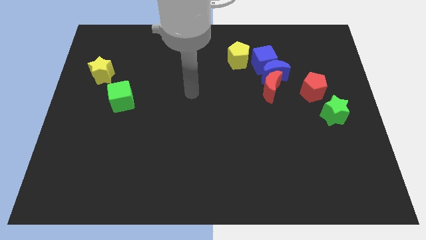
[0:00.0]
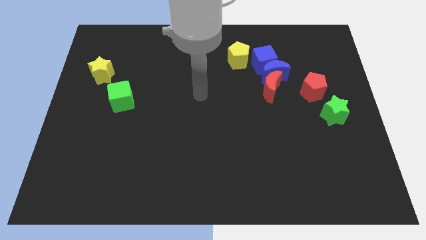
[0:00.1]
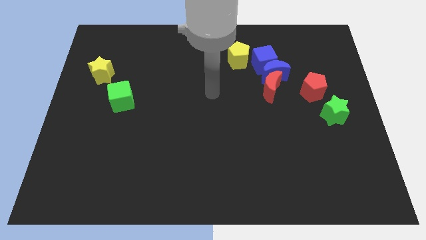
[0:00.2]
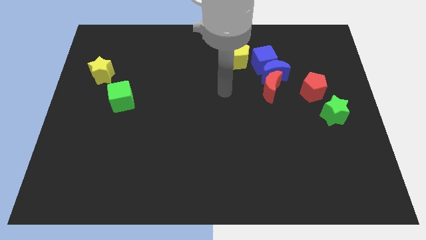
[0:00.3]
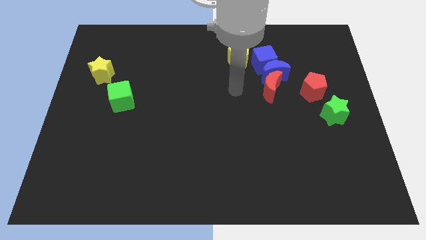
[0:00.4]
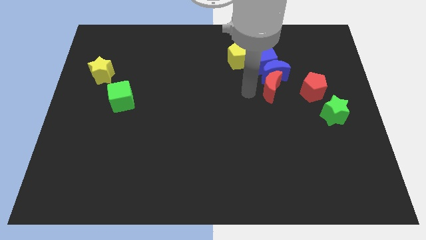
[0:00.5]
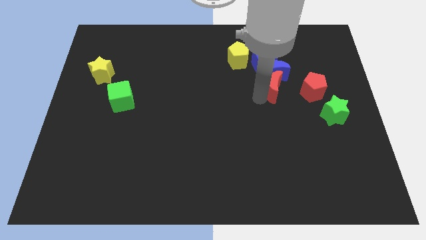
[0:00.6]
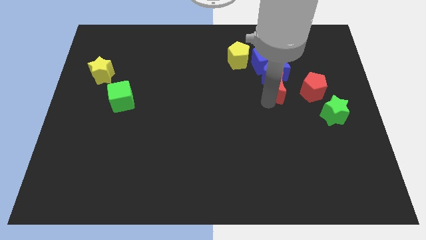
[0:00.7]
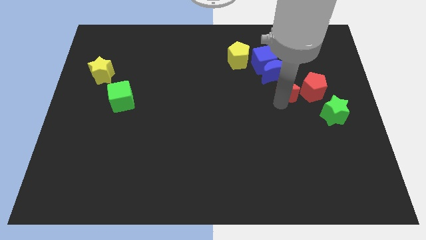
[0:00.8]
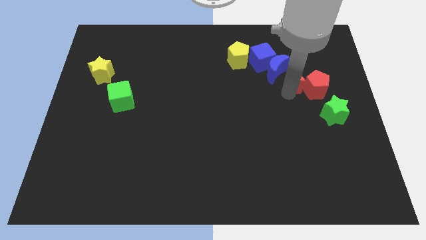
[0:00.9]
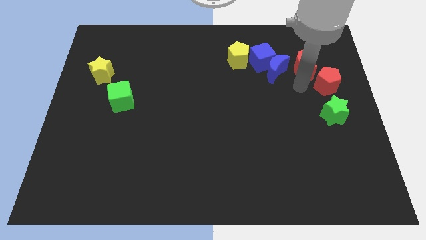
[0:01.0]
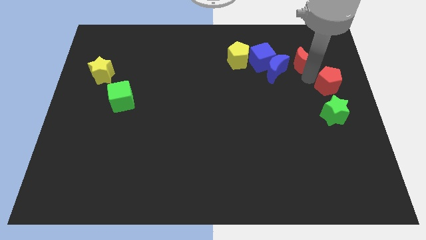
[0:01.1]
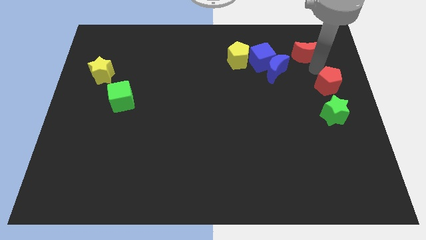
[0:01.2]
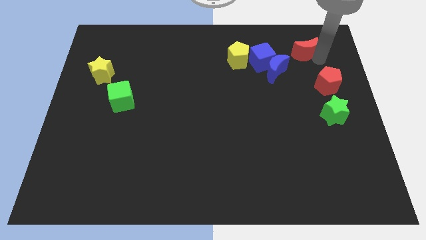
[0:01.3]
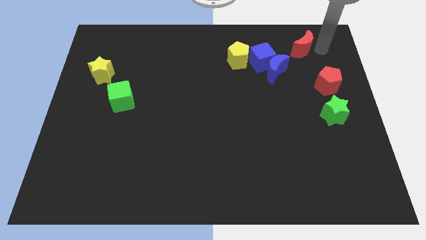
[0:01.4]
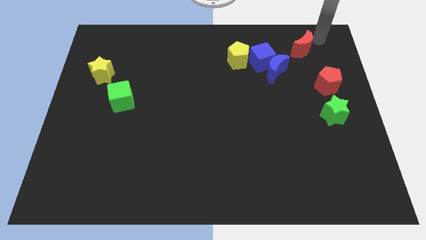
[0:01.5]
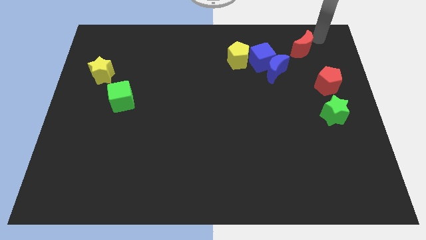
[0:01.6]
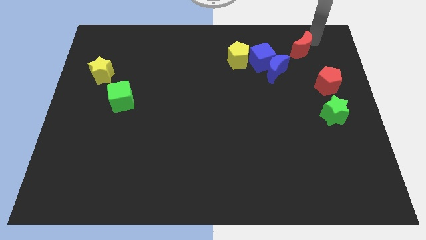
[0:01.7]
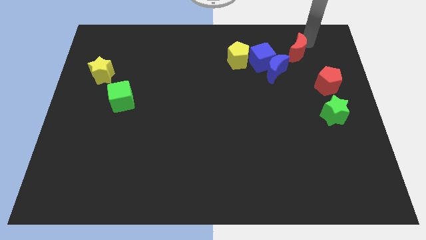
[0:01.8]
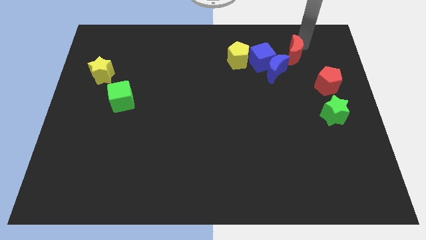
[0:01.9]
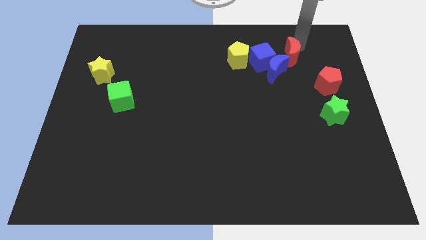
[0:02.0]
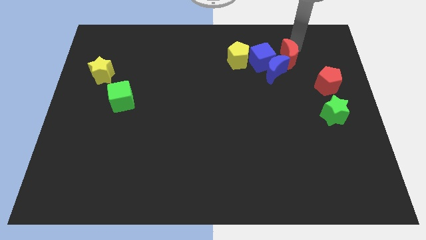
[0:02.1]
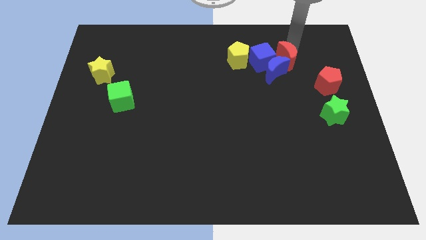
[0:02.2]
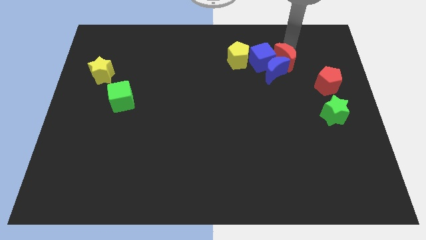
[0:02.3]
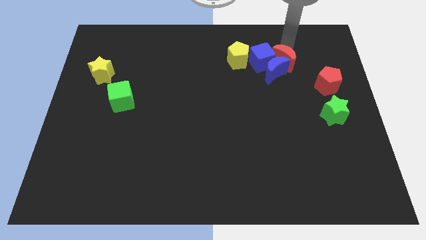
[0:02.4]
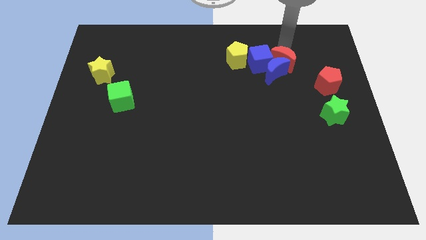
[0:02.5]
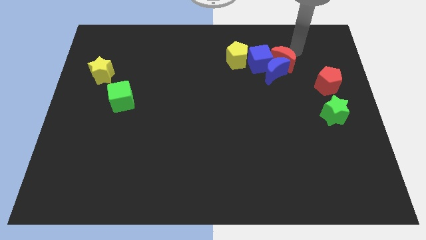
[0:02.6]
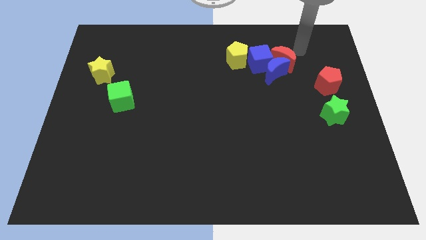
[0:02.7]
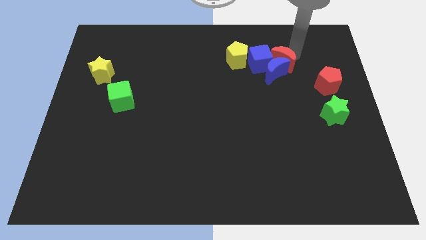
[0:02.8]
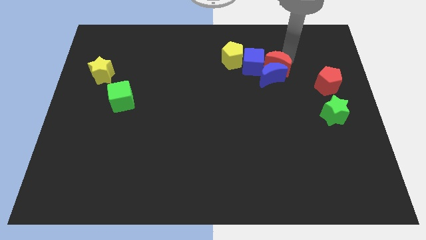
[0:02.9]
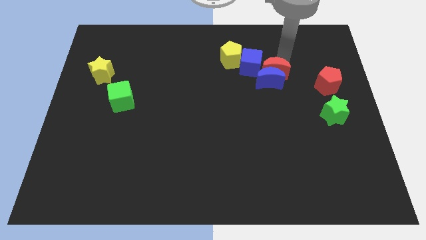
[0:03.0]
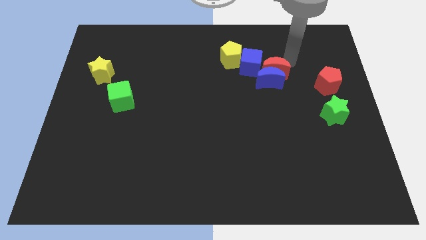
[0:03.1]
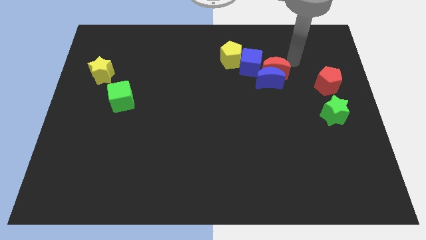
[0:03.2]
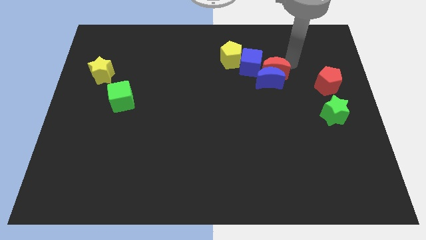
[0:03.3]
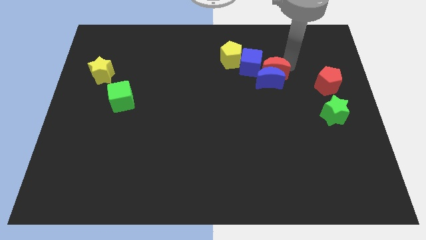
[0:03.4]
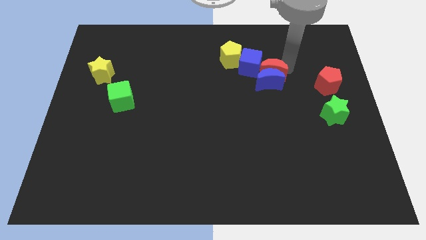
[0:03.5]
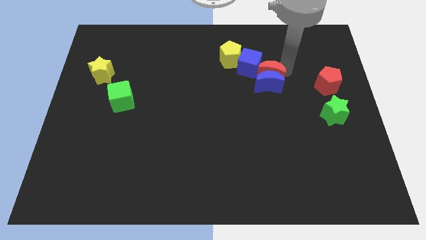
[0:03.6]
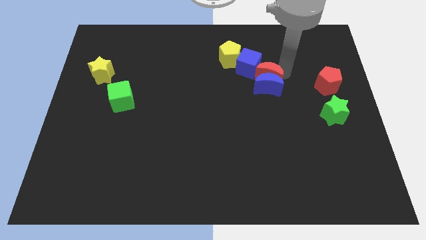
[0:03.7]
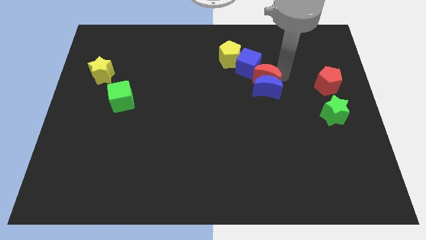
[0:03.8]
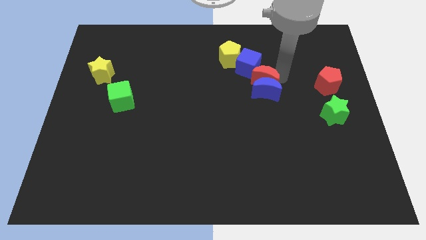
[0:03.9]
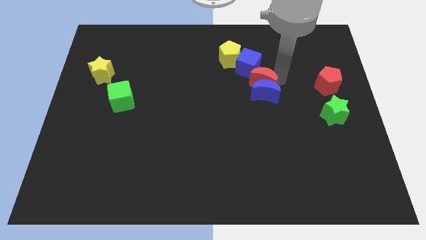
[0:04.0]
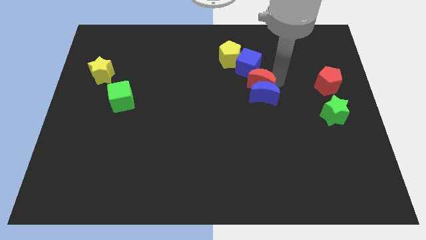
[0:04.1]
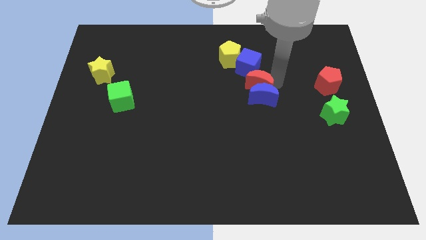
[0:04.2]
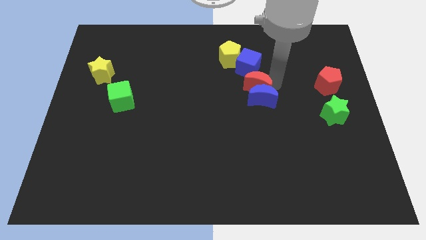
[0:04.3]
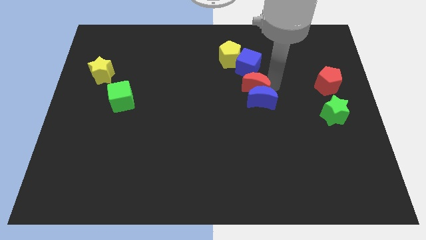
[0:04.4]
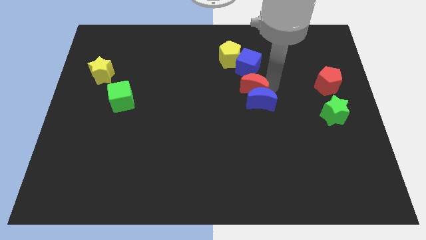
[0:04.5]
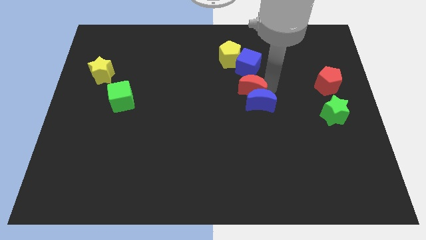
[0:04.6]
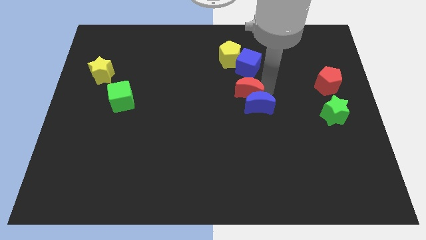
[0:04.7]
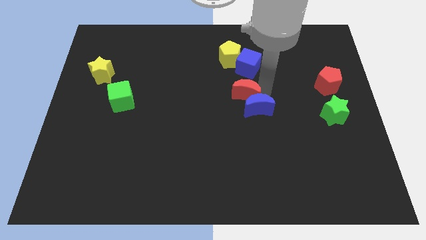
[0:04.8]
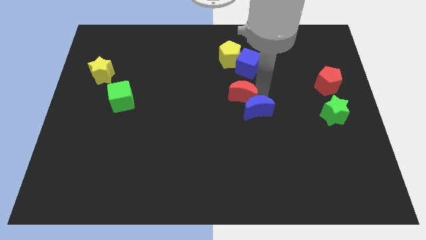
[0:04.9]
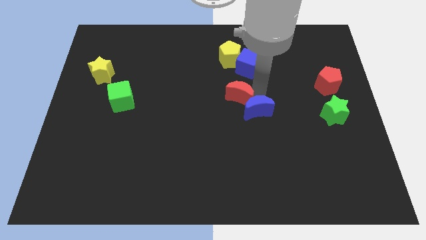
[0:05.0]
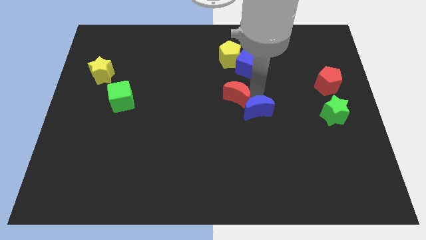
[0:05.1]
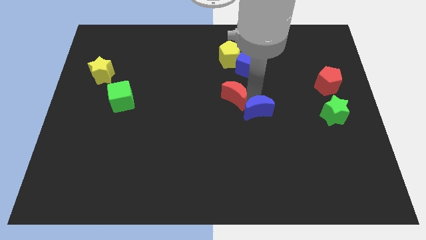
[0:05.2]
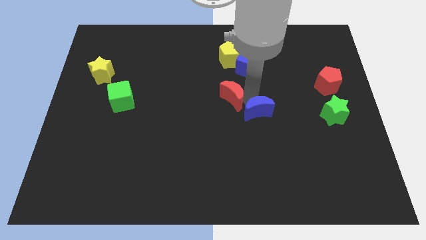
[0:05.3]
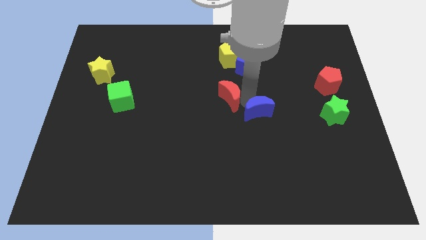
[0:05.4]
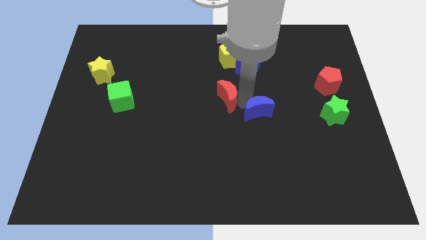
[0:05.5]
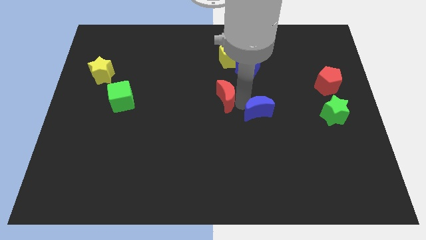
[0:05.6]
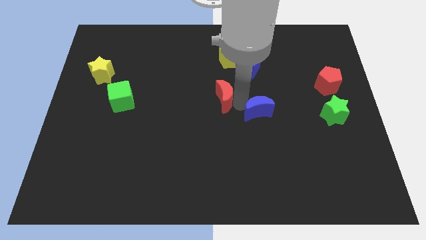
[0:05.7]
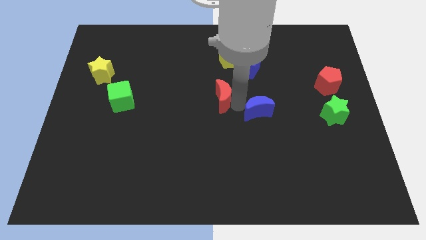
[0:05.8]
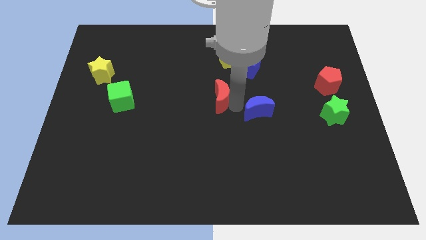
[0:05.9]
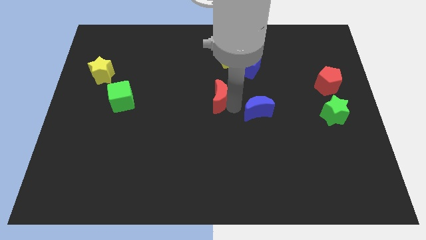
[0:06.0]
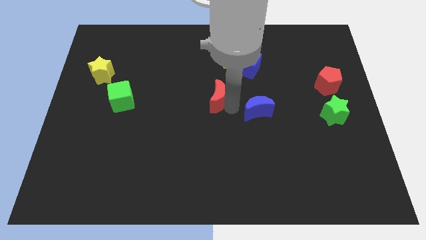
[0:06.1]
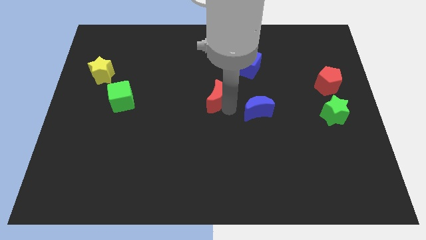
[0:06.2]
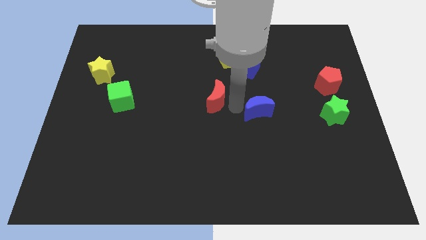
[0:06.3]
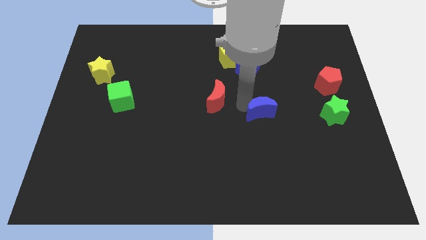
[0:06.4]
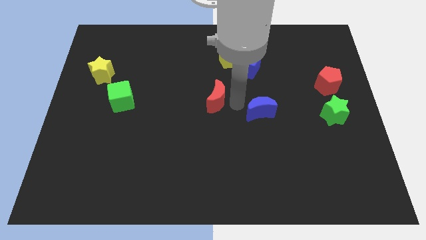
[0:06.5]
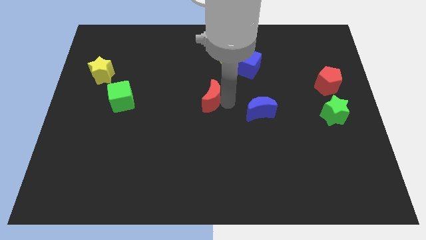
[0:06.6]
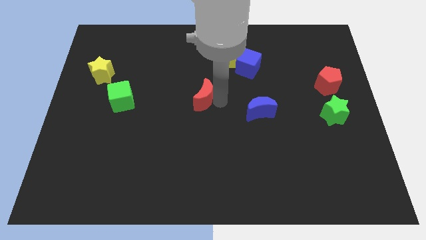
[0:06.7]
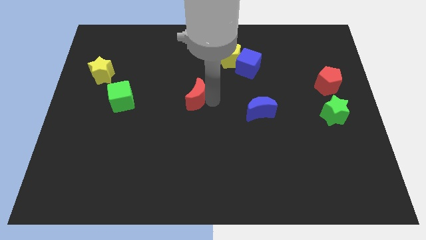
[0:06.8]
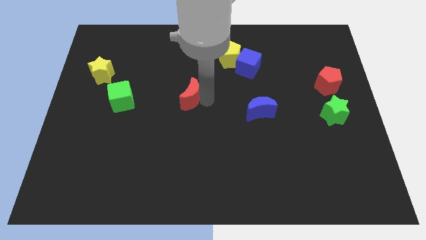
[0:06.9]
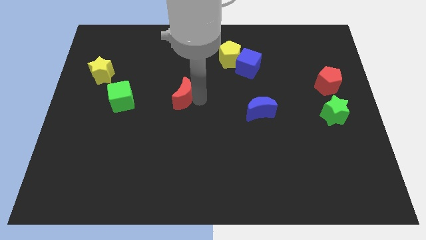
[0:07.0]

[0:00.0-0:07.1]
push the red moon to the left

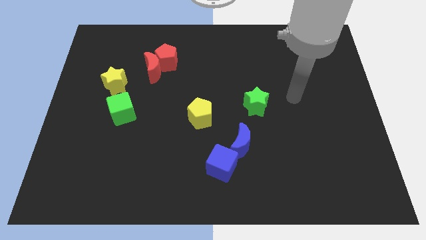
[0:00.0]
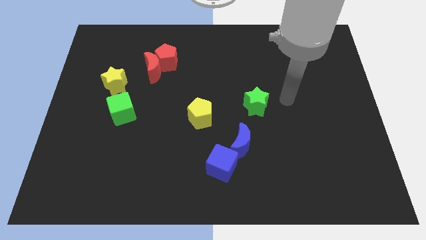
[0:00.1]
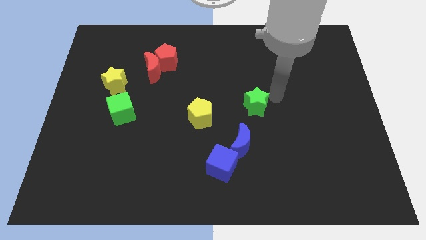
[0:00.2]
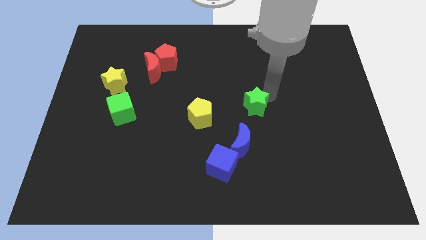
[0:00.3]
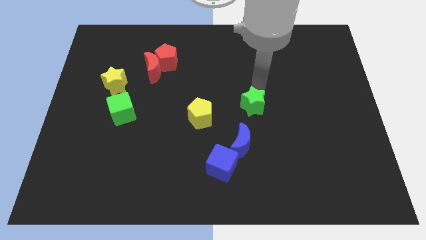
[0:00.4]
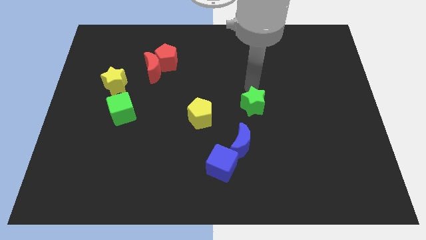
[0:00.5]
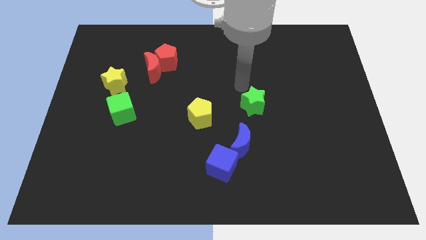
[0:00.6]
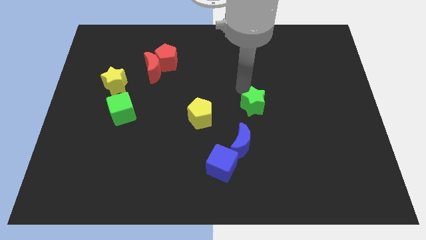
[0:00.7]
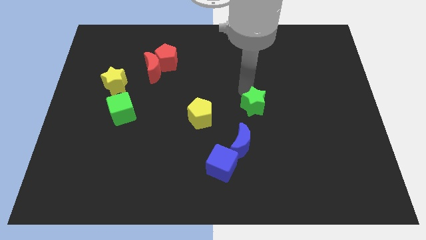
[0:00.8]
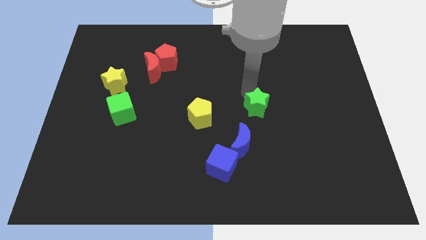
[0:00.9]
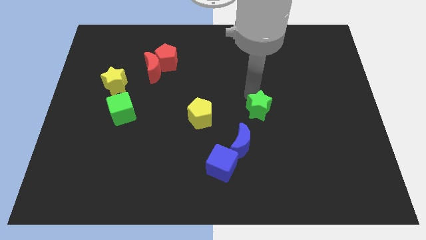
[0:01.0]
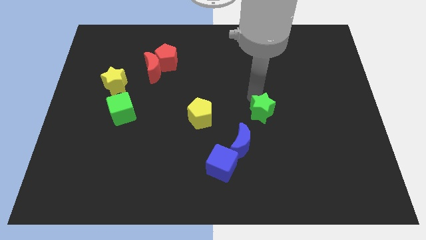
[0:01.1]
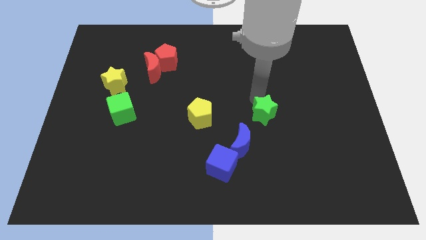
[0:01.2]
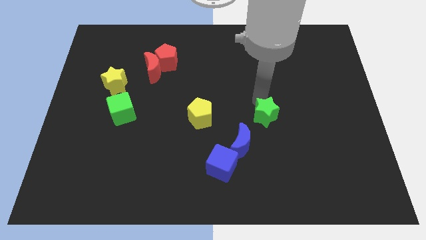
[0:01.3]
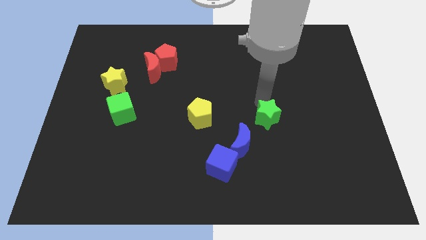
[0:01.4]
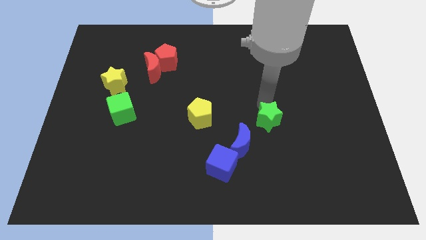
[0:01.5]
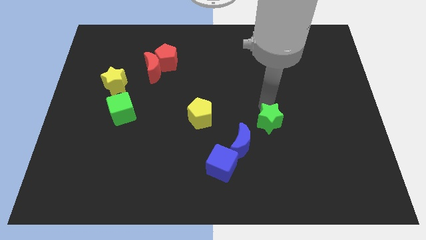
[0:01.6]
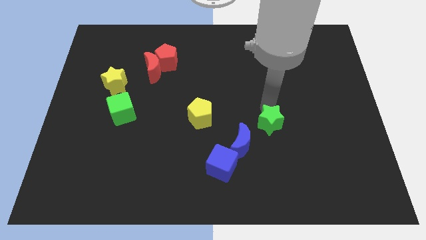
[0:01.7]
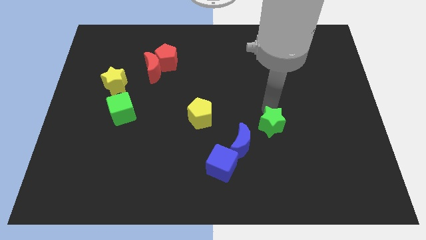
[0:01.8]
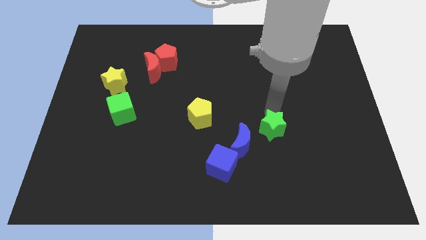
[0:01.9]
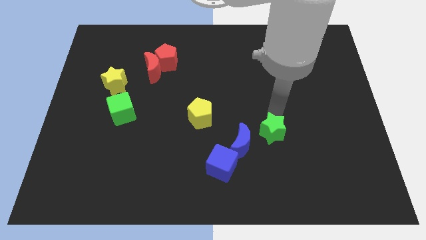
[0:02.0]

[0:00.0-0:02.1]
move the green star somewhat downwards
